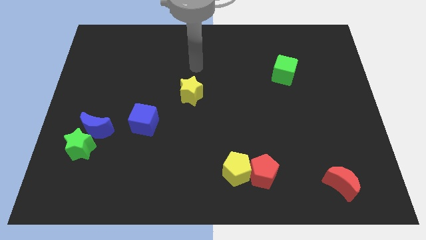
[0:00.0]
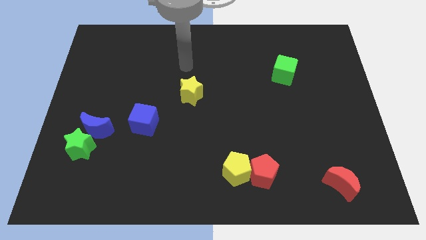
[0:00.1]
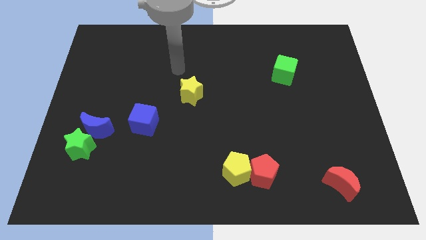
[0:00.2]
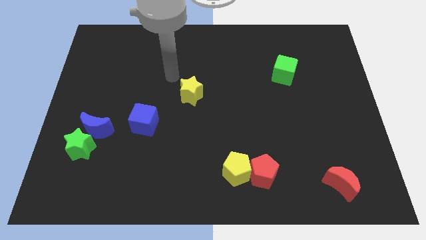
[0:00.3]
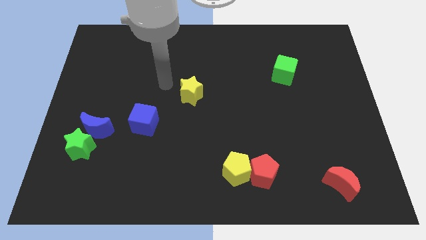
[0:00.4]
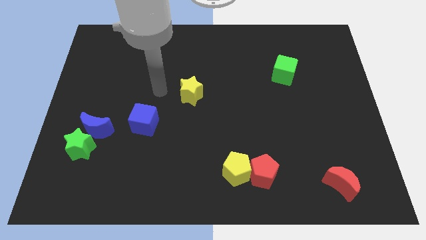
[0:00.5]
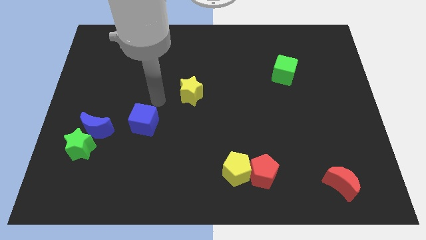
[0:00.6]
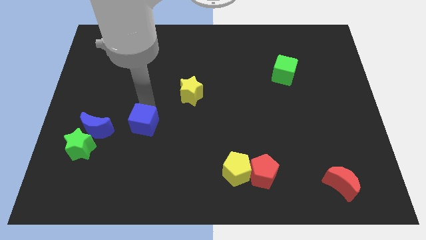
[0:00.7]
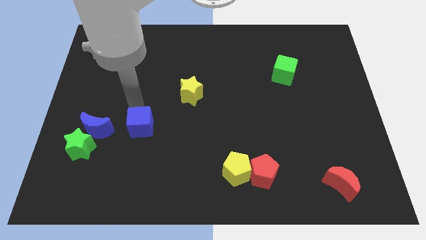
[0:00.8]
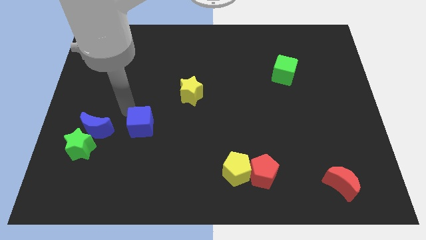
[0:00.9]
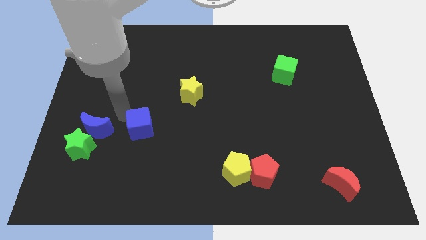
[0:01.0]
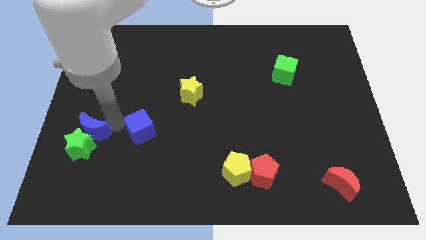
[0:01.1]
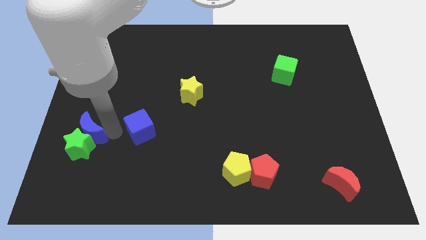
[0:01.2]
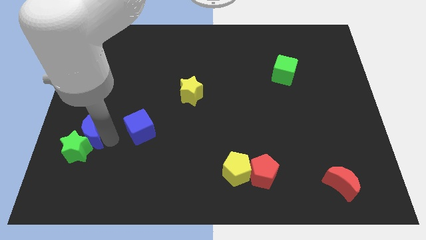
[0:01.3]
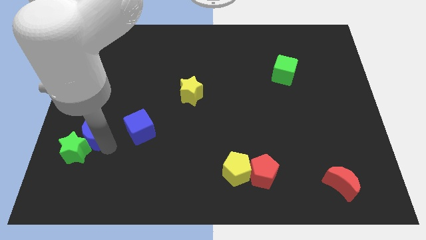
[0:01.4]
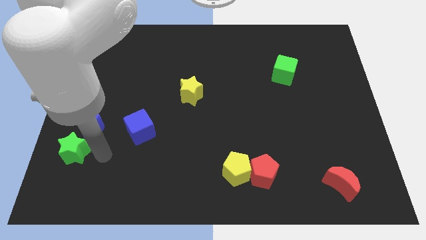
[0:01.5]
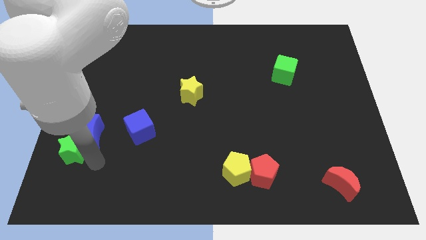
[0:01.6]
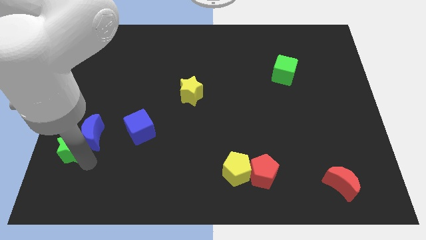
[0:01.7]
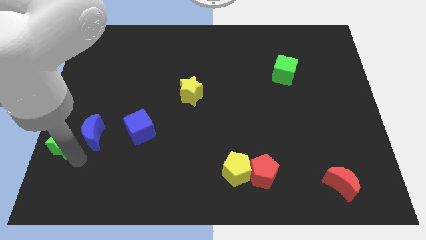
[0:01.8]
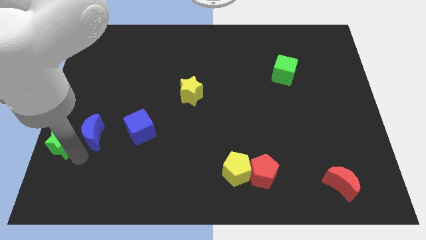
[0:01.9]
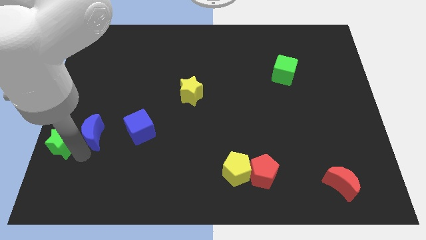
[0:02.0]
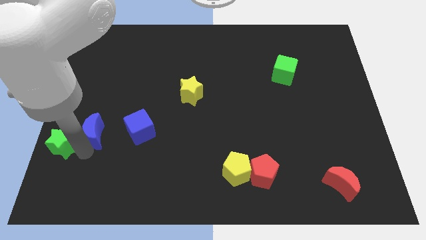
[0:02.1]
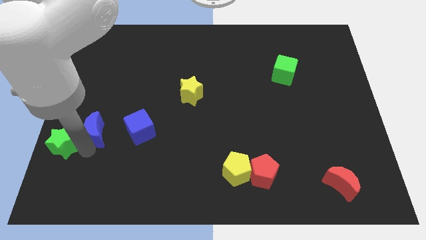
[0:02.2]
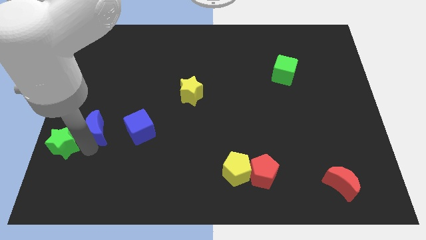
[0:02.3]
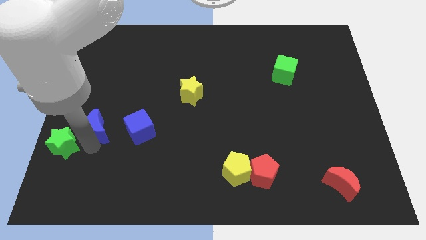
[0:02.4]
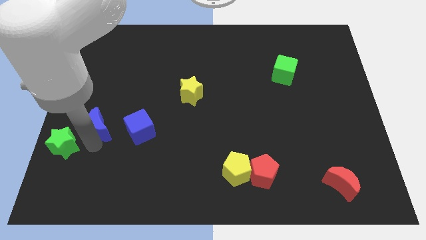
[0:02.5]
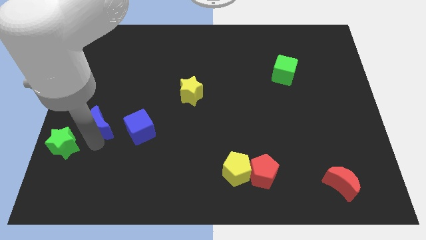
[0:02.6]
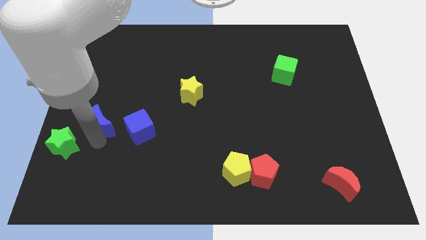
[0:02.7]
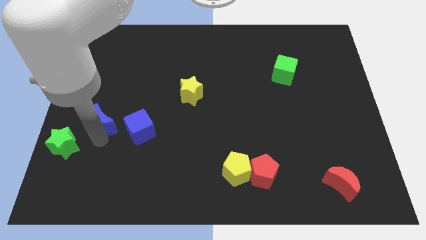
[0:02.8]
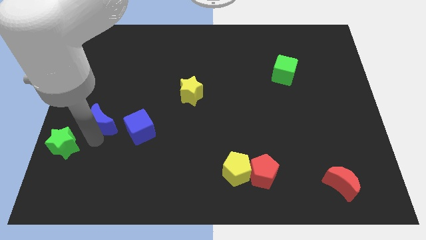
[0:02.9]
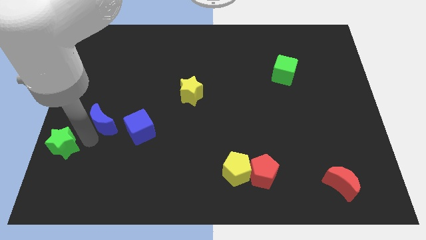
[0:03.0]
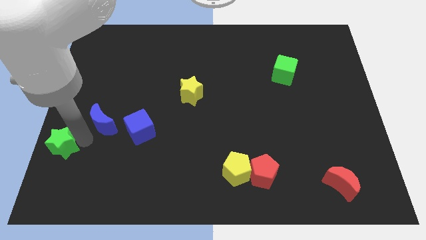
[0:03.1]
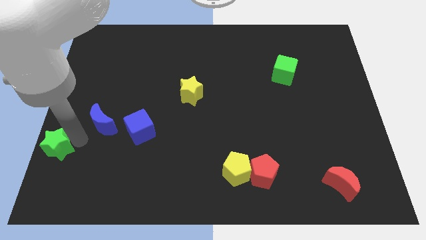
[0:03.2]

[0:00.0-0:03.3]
separate the blue moon from the green star

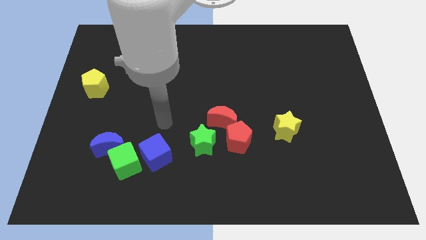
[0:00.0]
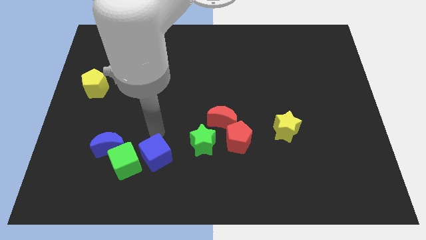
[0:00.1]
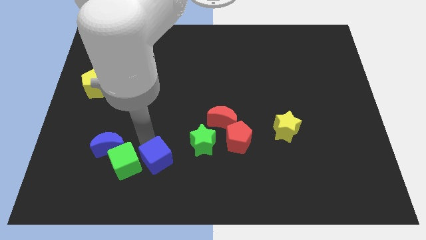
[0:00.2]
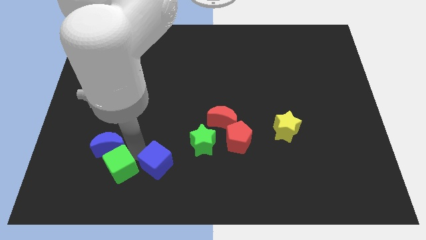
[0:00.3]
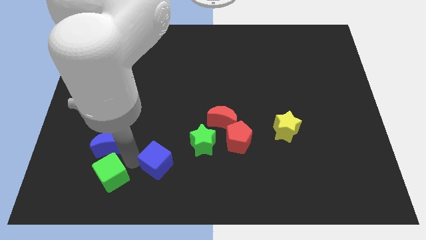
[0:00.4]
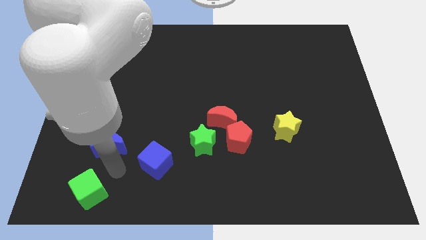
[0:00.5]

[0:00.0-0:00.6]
move the blue moon away from the green cube

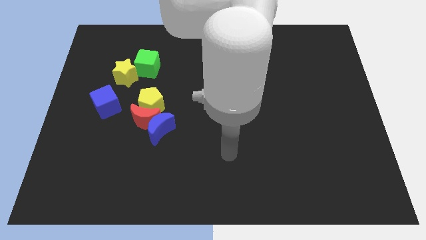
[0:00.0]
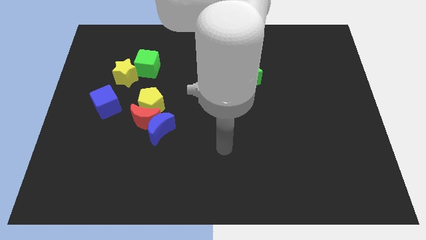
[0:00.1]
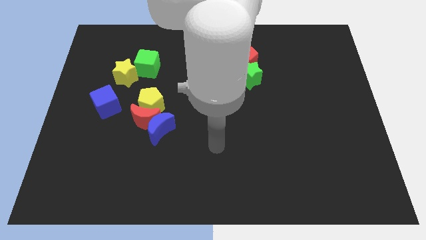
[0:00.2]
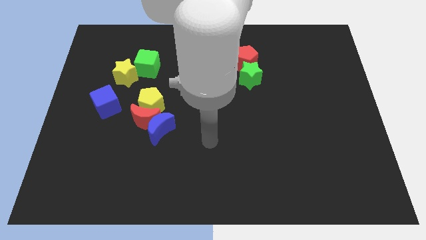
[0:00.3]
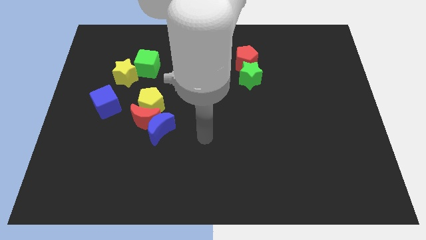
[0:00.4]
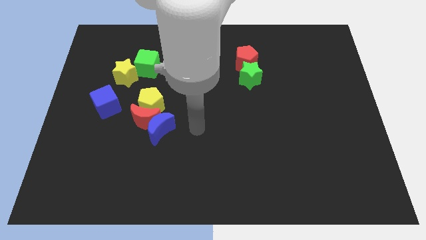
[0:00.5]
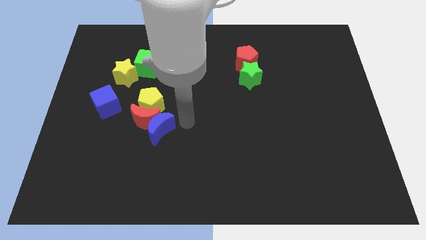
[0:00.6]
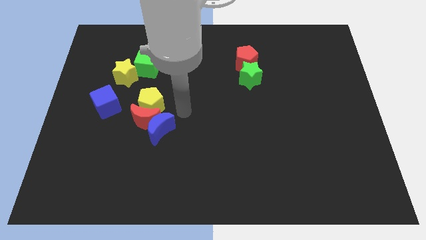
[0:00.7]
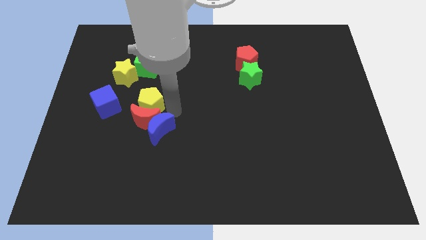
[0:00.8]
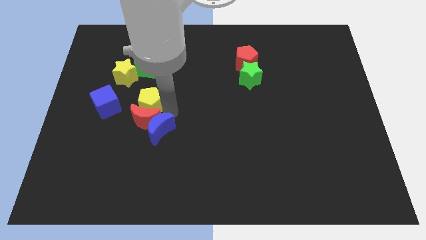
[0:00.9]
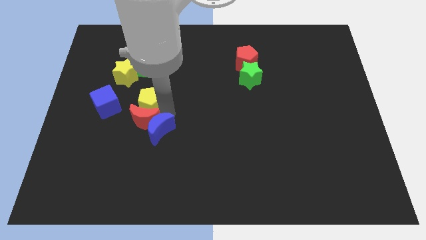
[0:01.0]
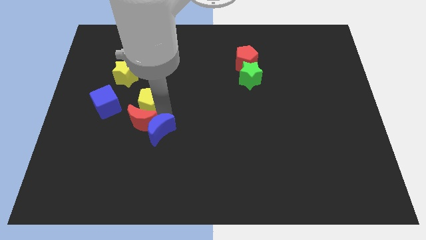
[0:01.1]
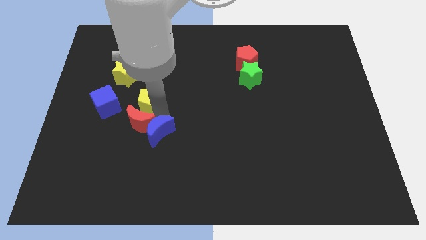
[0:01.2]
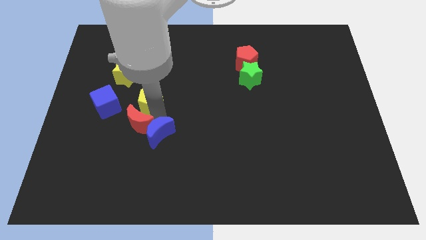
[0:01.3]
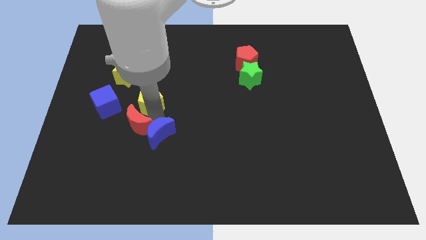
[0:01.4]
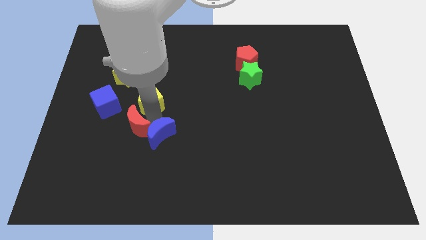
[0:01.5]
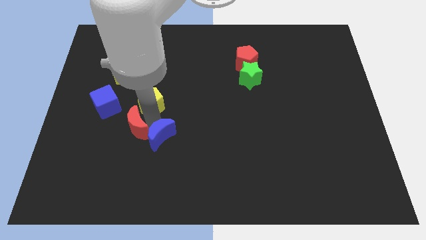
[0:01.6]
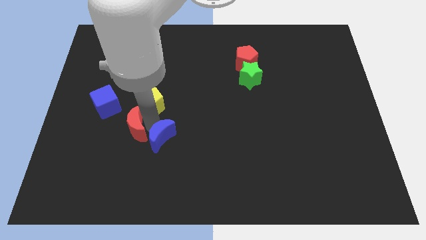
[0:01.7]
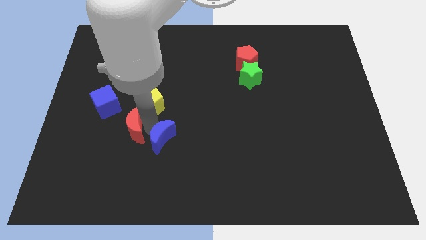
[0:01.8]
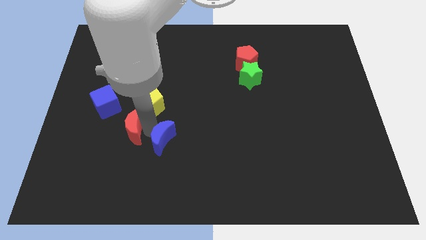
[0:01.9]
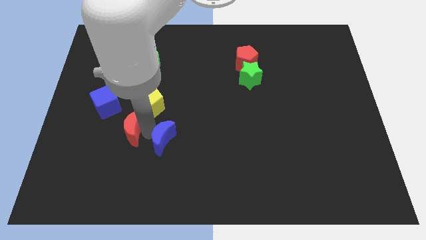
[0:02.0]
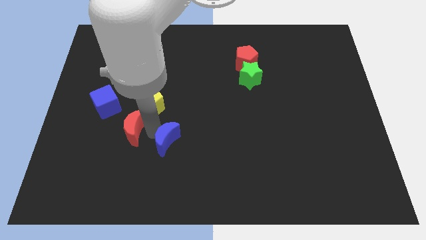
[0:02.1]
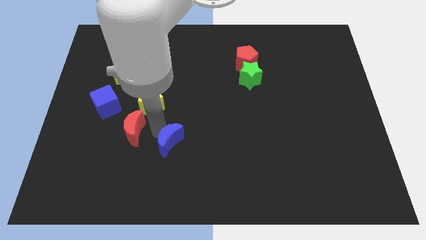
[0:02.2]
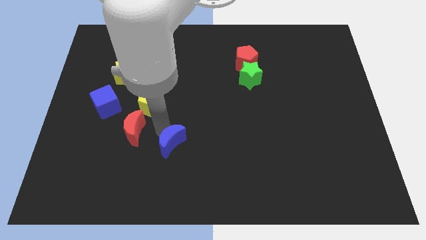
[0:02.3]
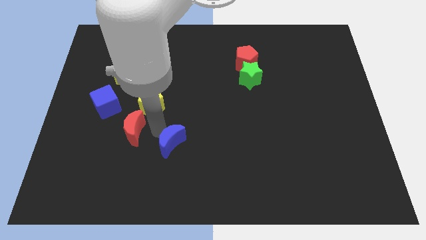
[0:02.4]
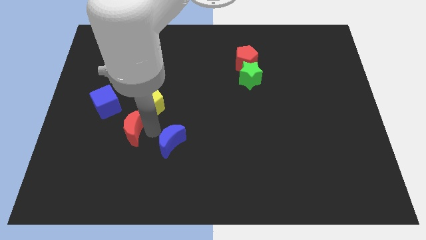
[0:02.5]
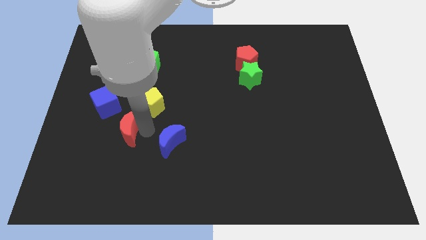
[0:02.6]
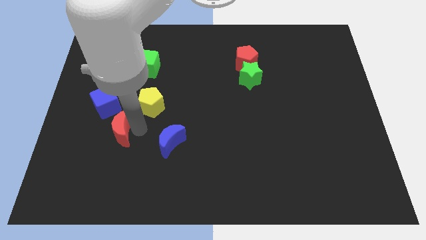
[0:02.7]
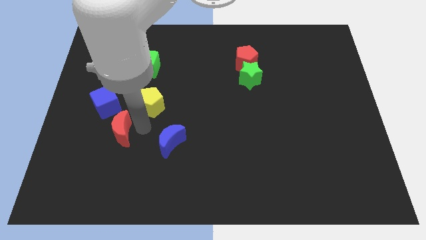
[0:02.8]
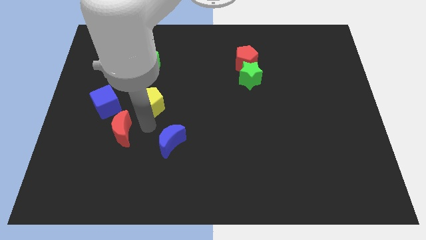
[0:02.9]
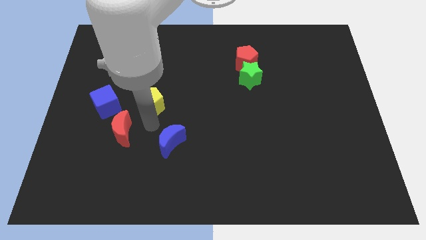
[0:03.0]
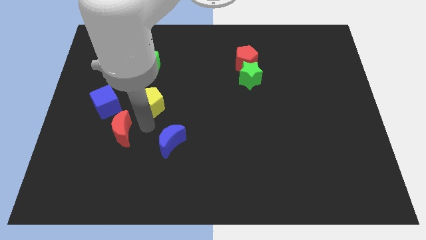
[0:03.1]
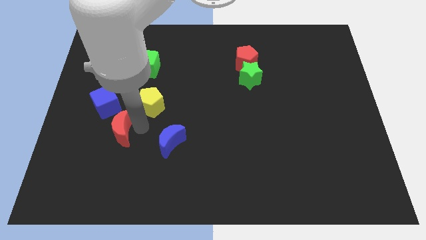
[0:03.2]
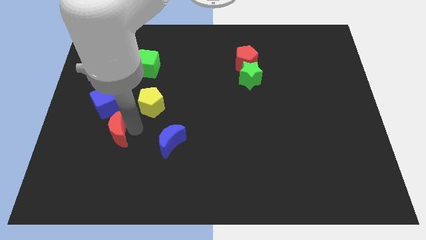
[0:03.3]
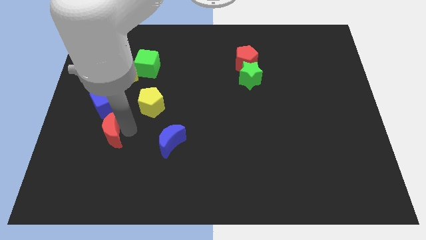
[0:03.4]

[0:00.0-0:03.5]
separate the red moon from the blue moon and yellow pentagon

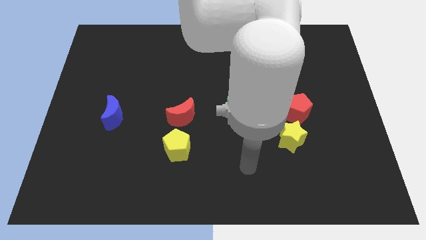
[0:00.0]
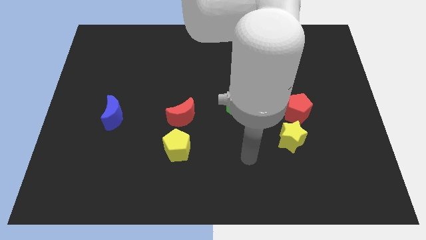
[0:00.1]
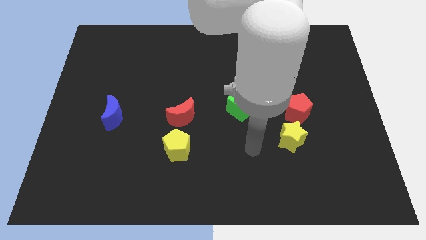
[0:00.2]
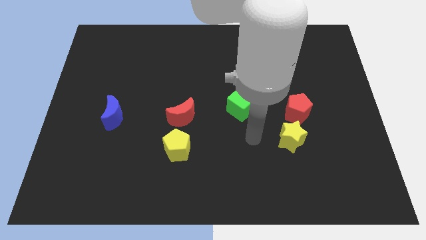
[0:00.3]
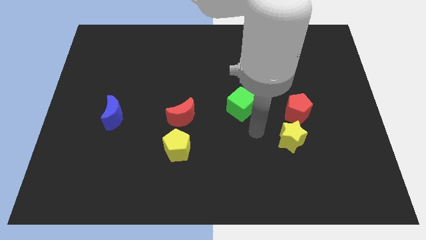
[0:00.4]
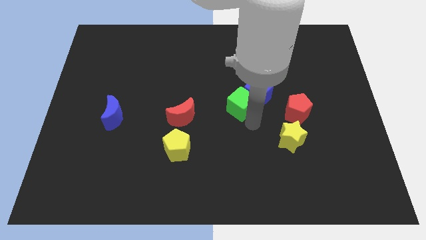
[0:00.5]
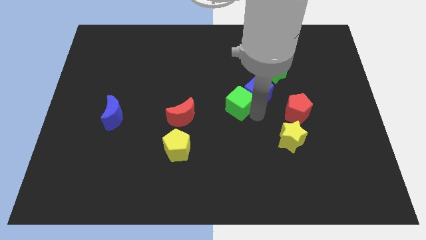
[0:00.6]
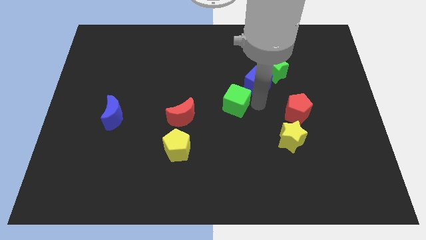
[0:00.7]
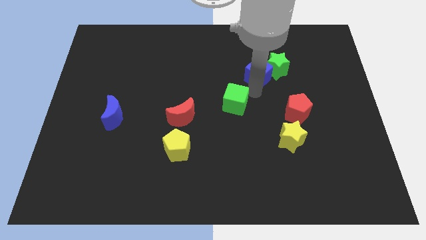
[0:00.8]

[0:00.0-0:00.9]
move the green cube away from the blue cube

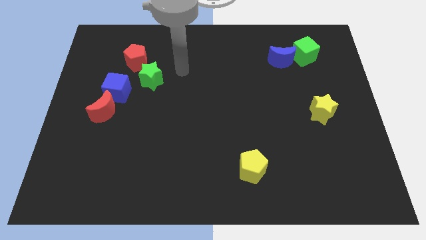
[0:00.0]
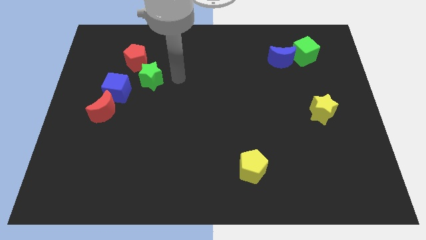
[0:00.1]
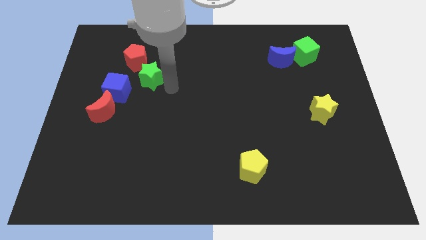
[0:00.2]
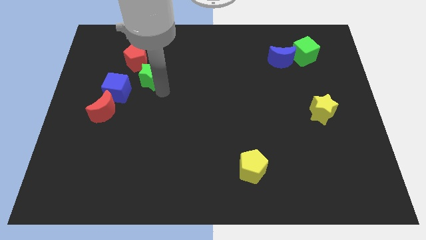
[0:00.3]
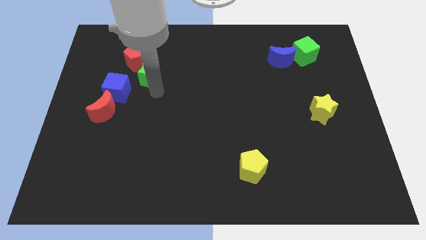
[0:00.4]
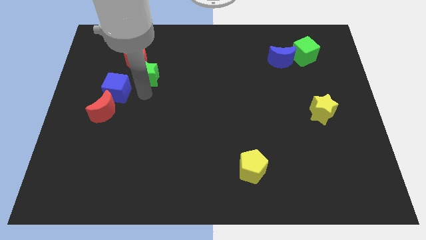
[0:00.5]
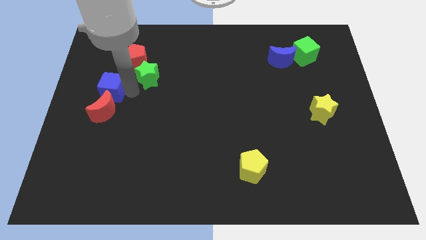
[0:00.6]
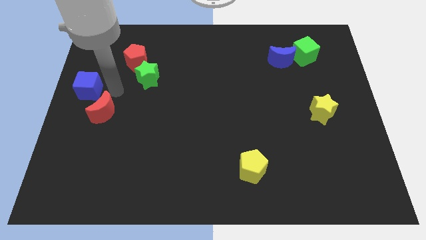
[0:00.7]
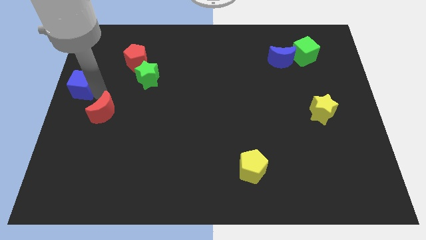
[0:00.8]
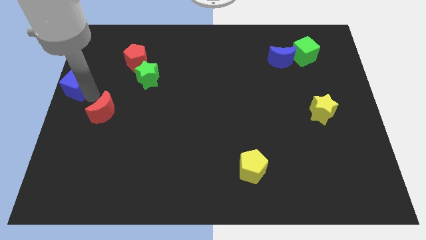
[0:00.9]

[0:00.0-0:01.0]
pull the red moon apart from the blue cube

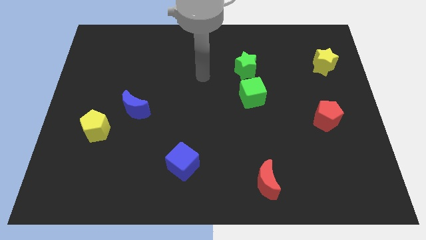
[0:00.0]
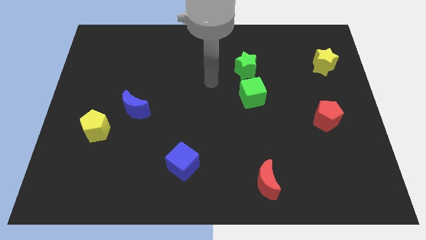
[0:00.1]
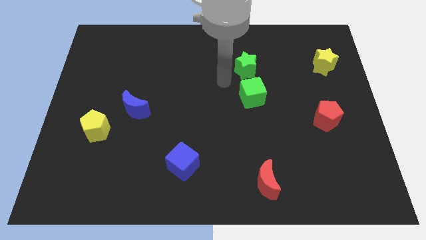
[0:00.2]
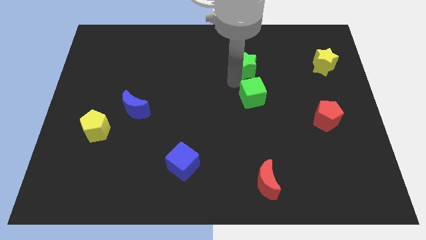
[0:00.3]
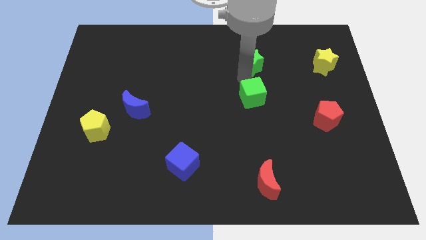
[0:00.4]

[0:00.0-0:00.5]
separate the green cube from the green star